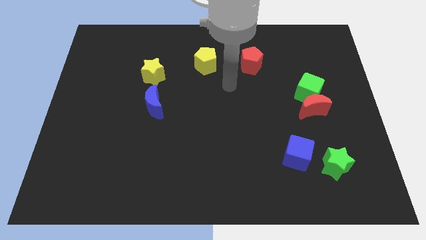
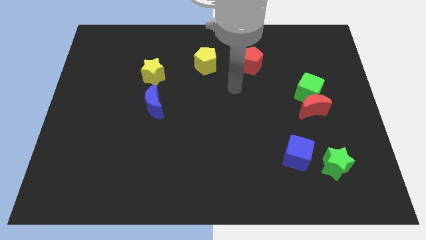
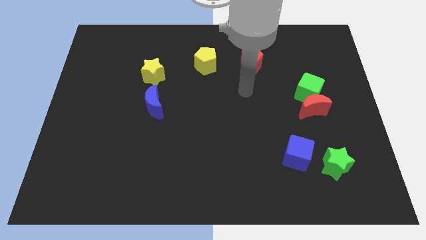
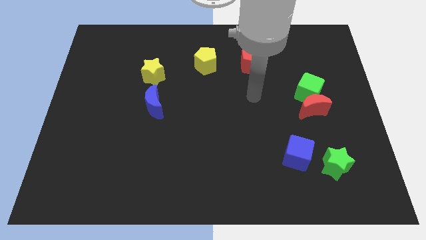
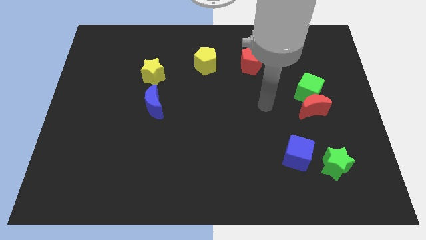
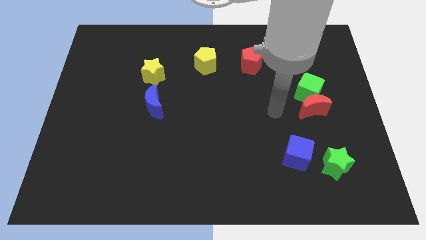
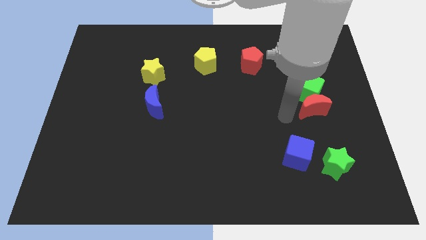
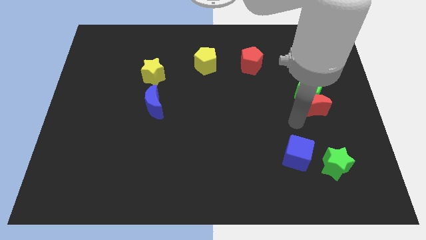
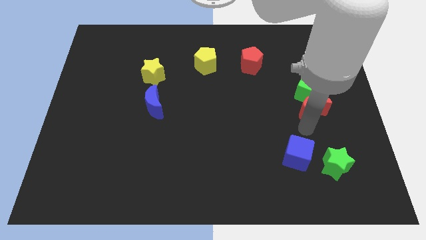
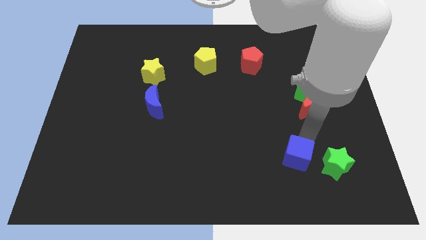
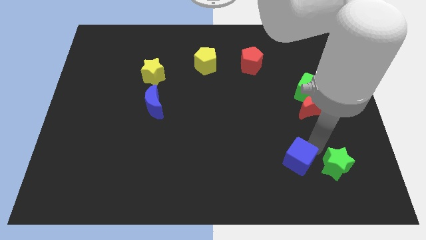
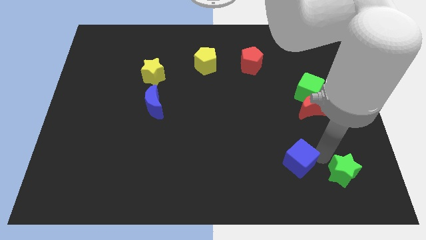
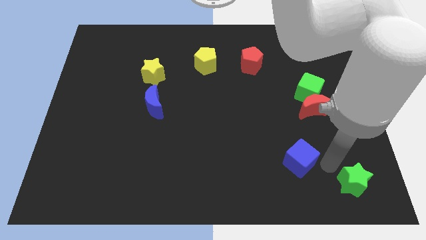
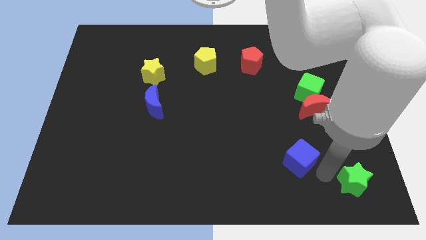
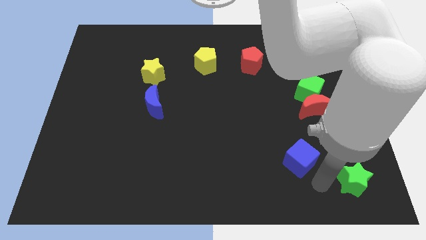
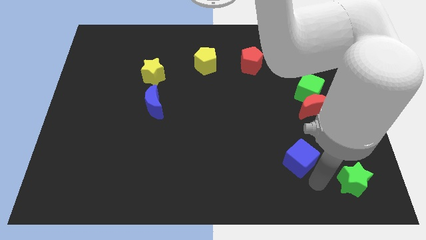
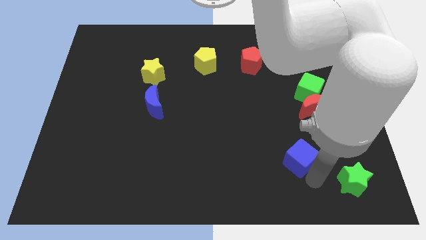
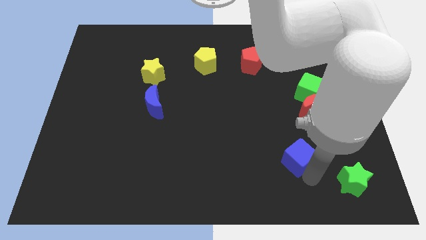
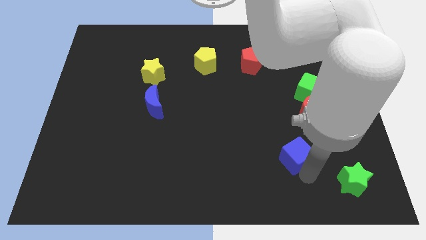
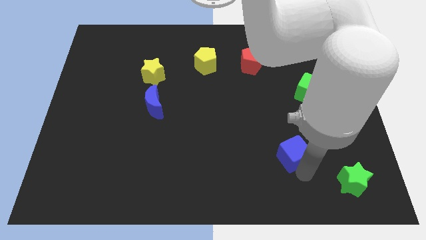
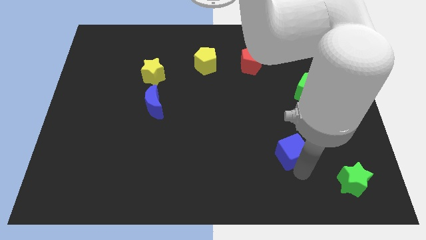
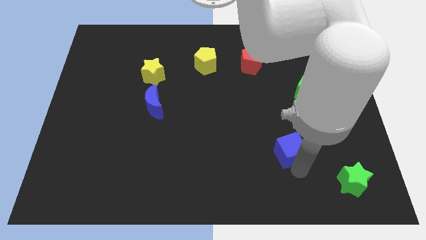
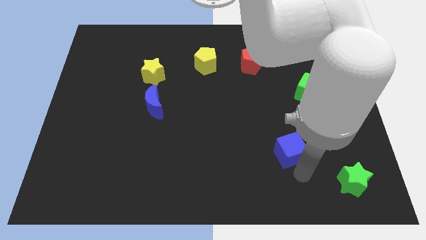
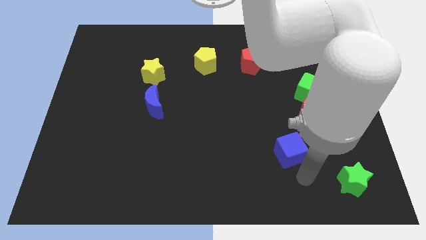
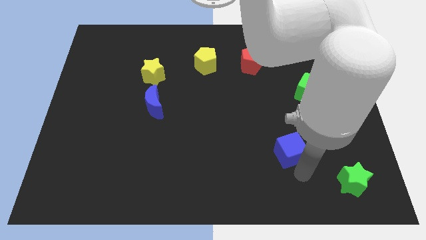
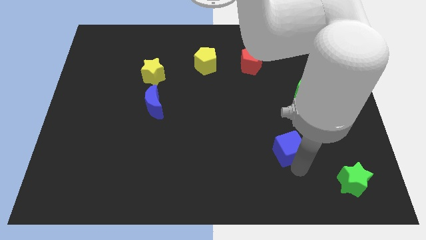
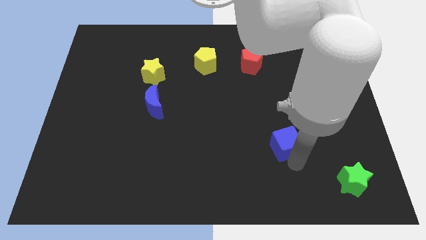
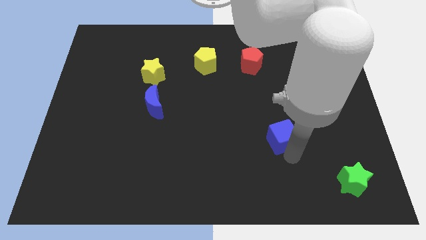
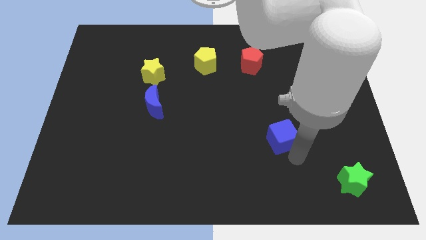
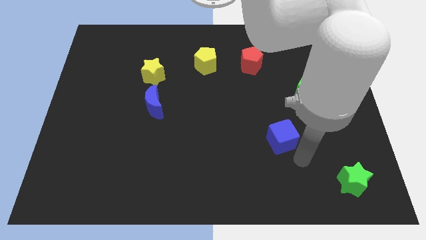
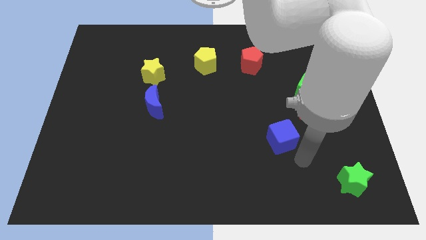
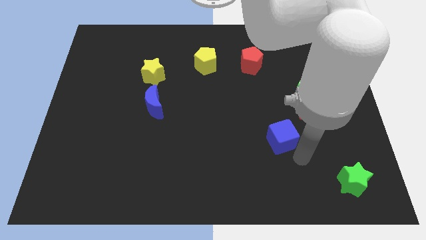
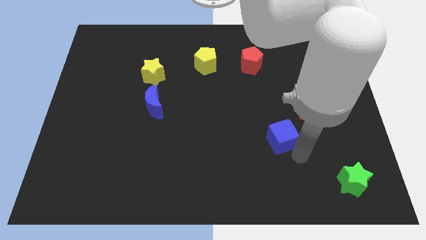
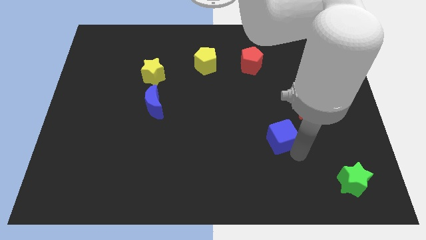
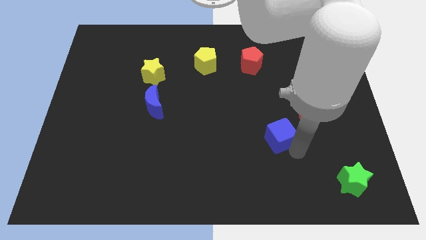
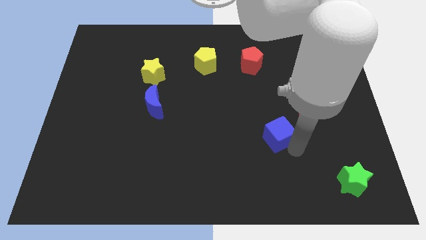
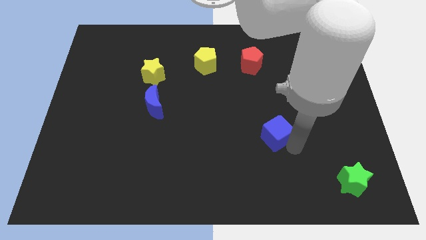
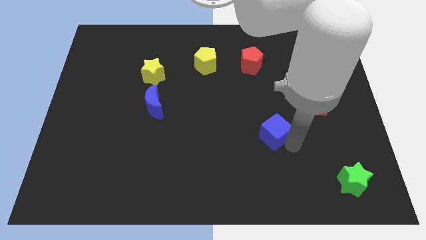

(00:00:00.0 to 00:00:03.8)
slightly push the blue cube diagonally up and to the left

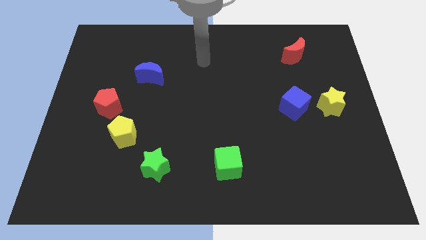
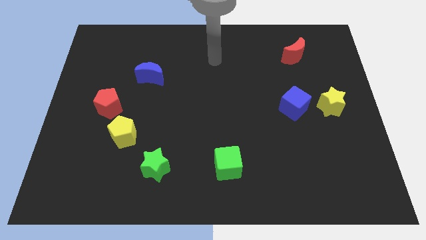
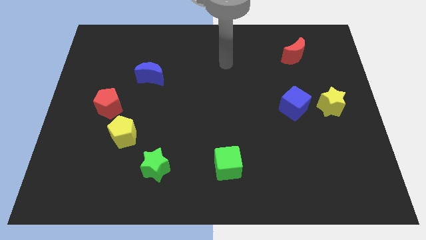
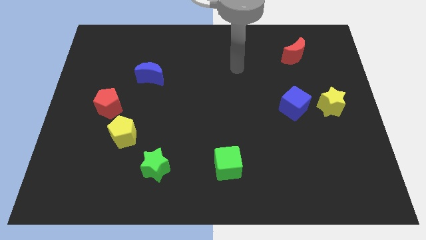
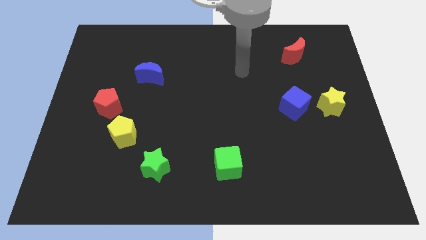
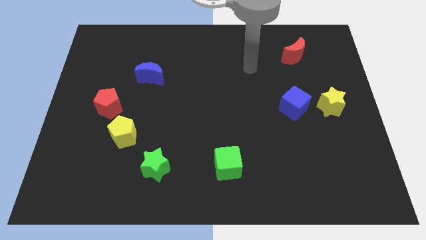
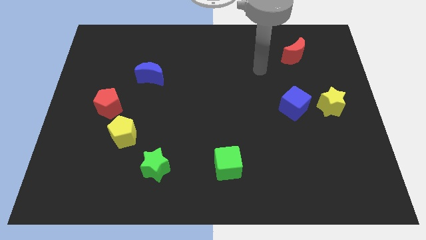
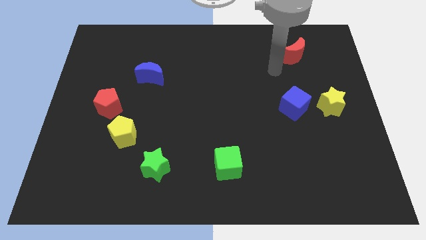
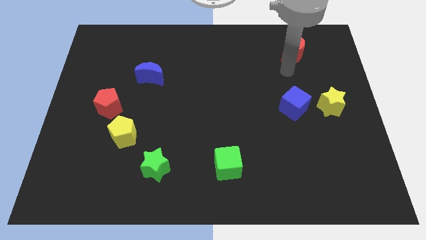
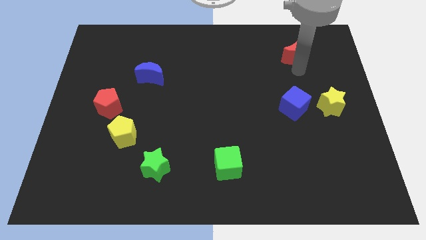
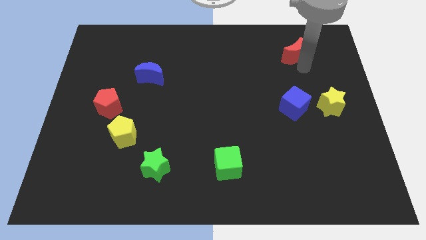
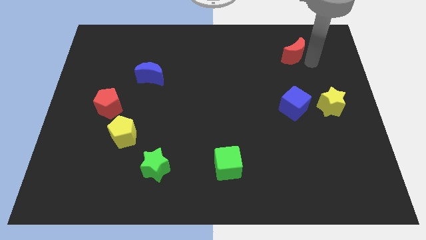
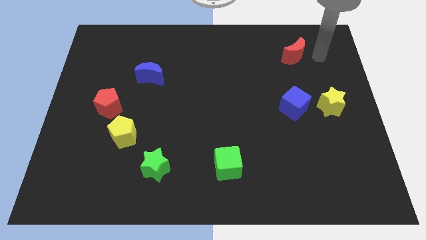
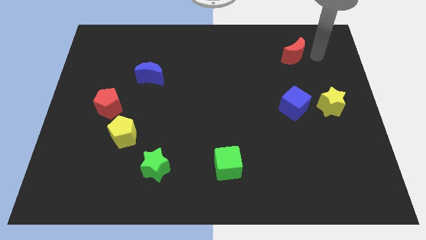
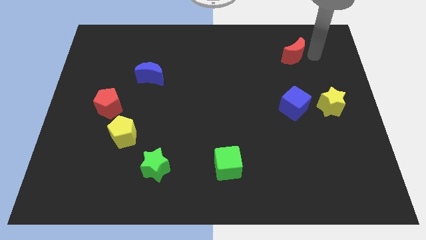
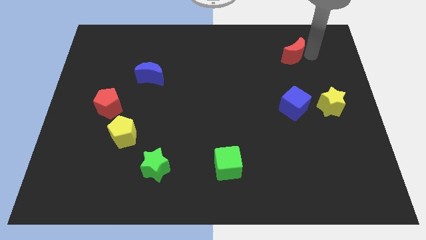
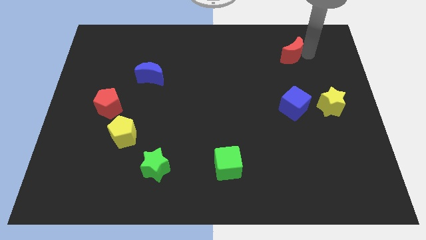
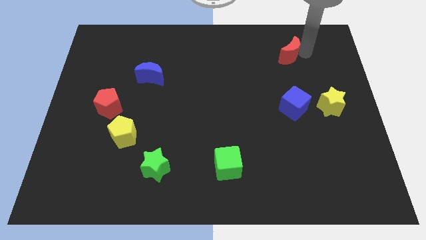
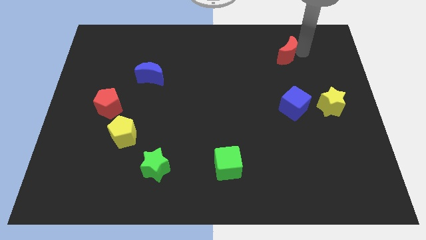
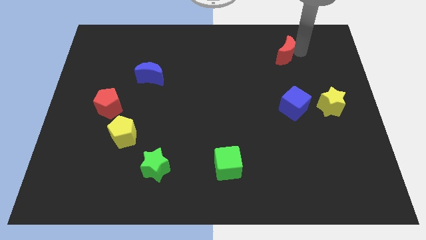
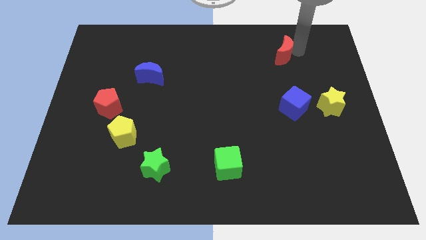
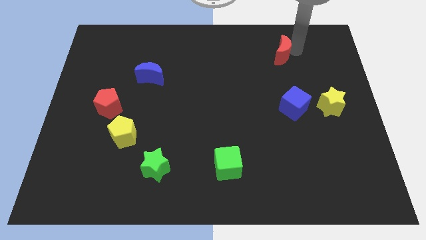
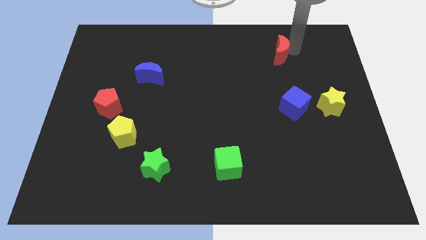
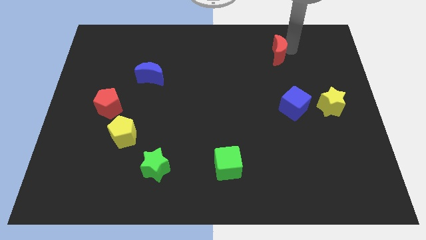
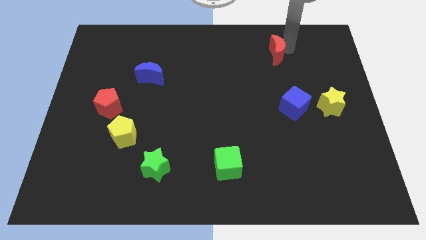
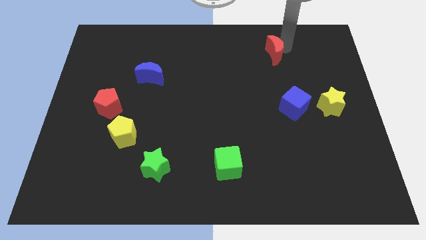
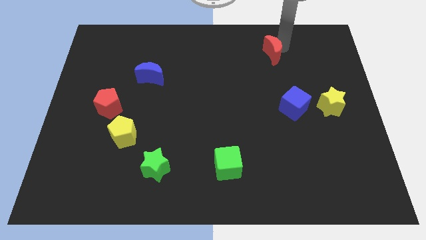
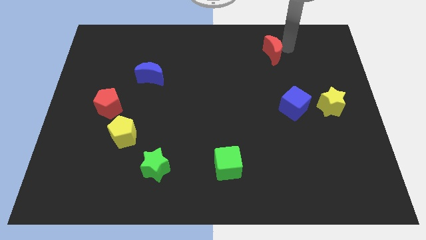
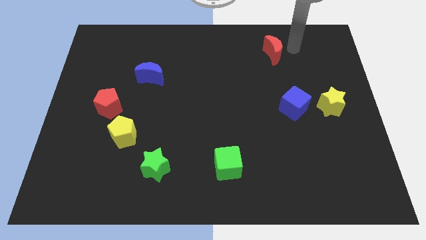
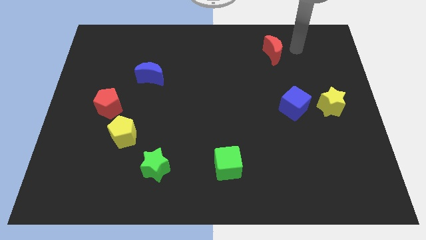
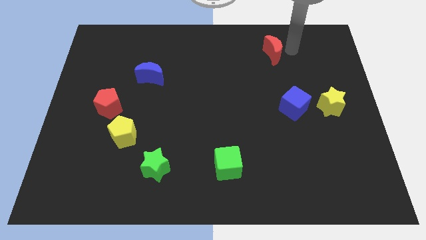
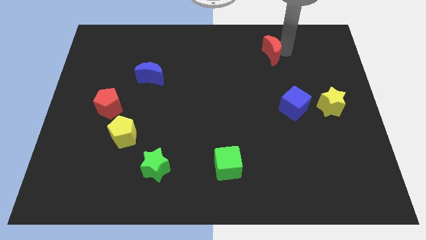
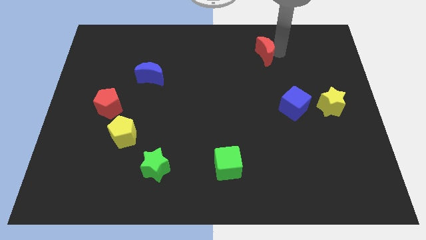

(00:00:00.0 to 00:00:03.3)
slide the red moon a little left

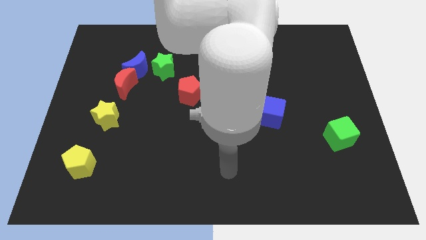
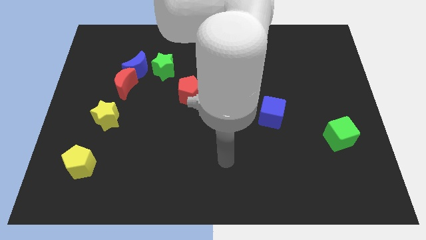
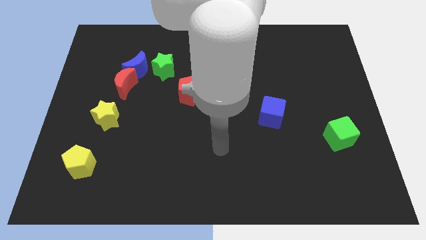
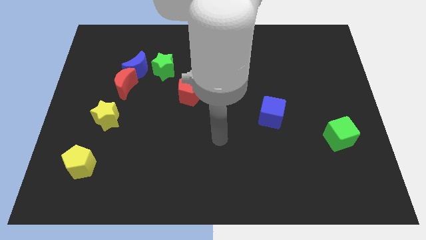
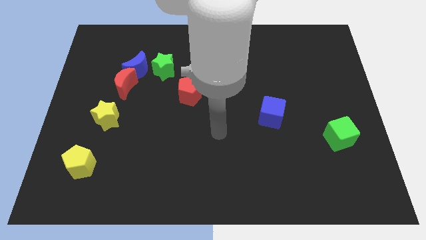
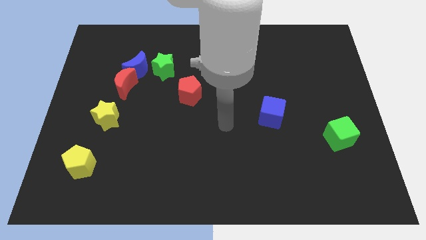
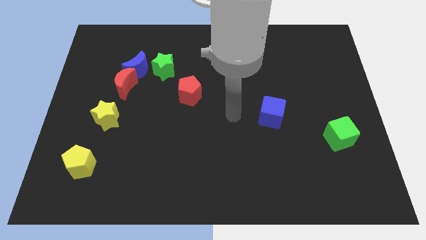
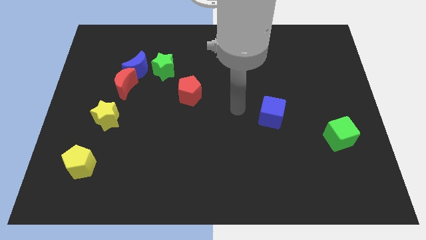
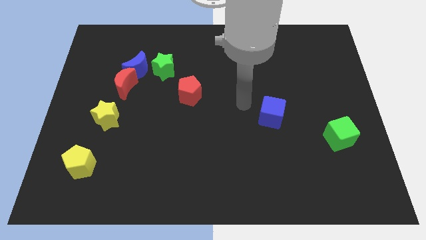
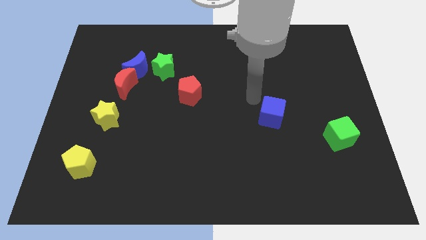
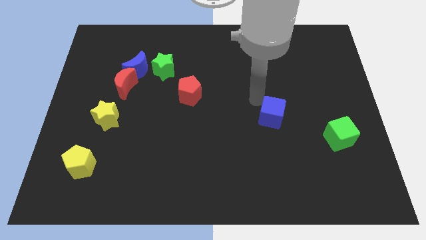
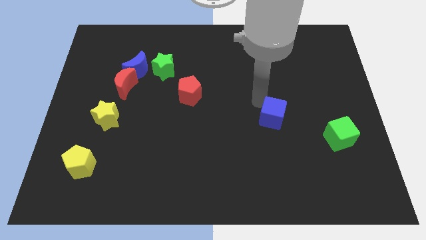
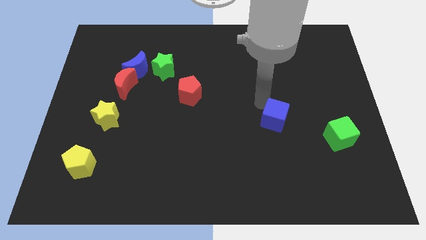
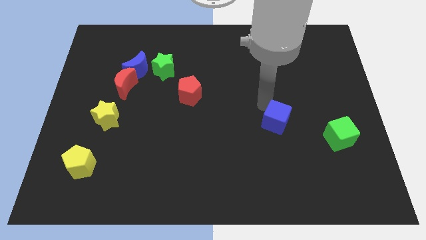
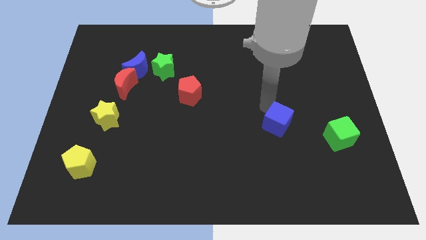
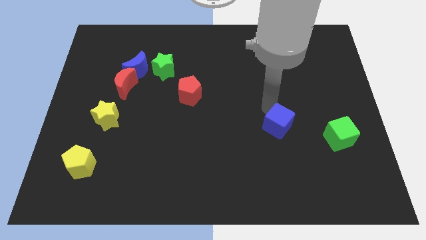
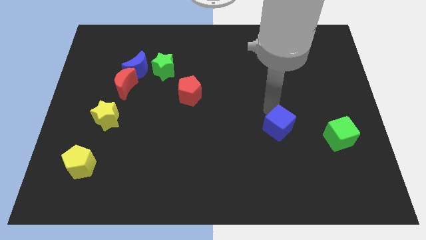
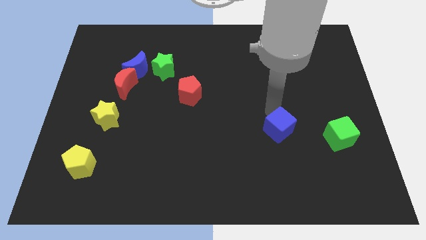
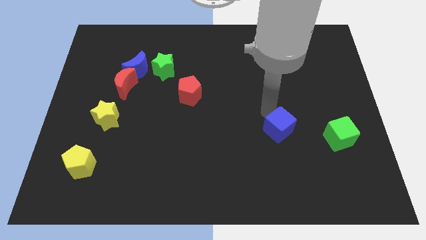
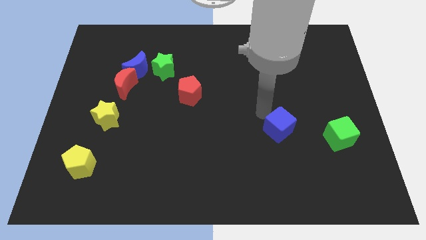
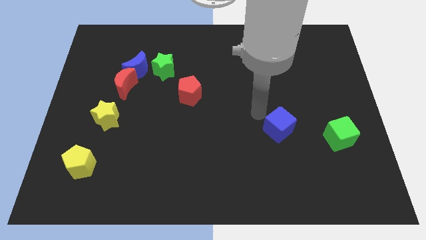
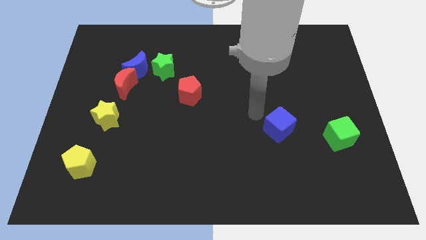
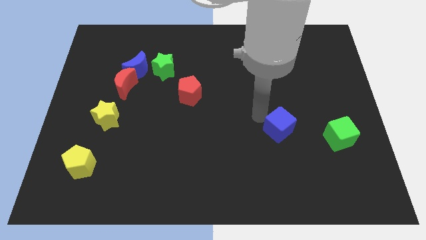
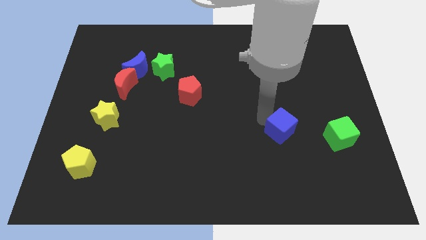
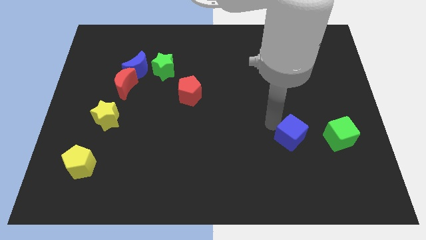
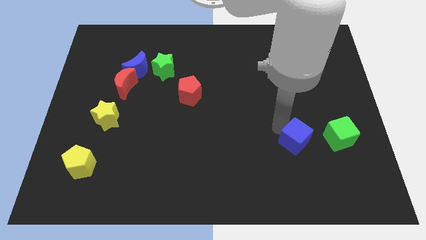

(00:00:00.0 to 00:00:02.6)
move the blue cube slightly downwards and to the right diagonally
